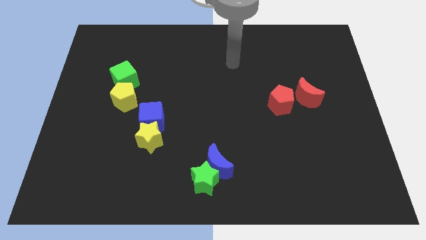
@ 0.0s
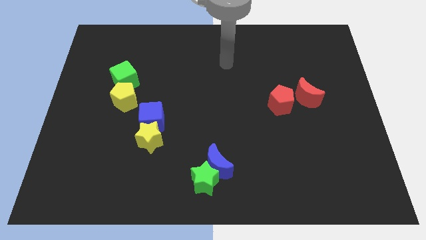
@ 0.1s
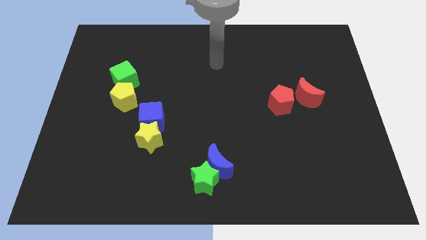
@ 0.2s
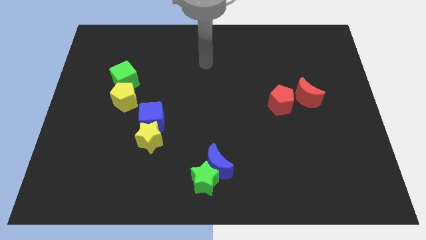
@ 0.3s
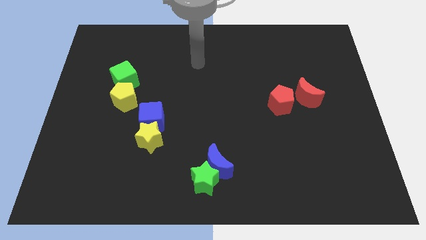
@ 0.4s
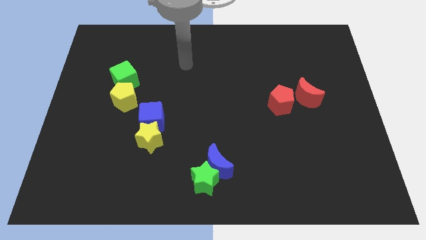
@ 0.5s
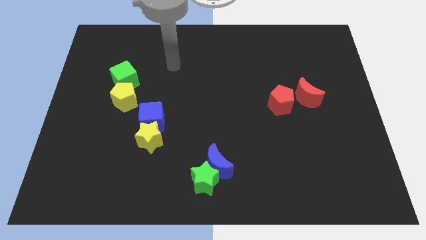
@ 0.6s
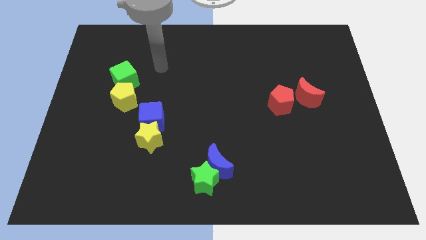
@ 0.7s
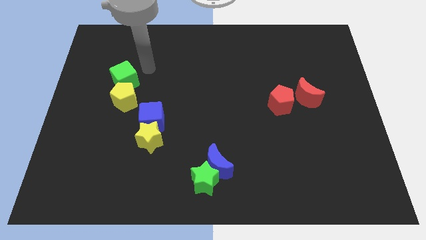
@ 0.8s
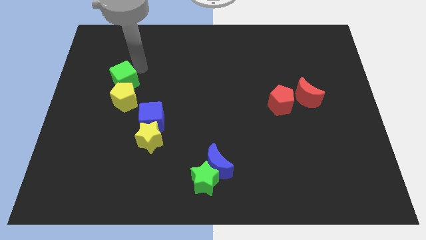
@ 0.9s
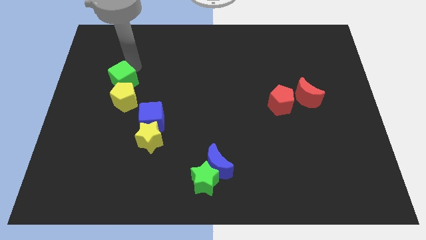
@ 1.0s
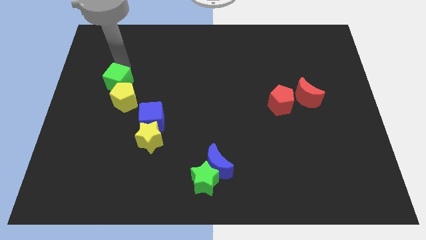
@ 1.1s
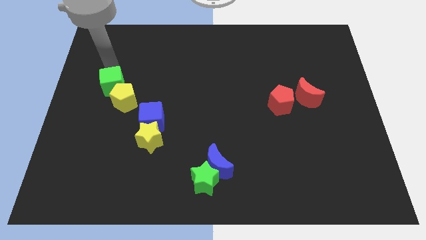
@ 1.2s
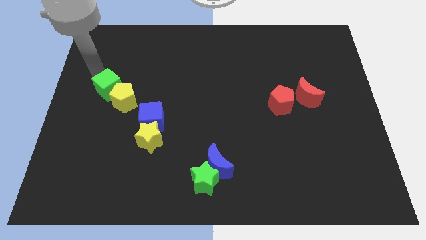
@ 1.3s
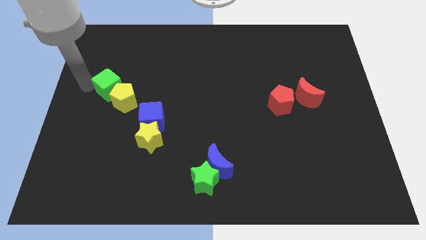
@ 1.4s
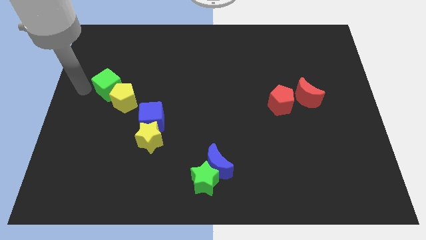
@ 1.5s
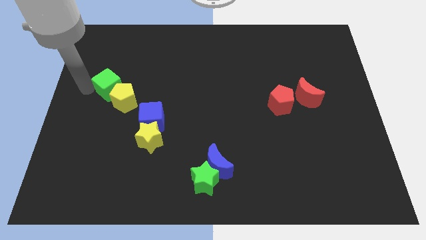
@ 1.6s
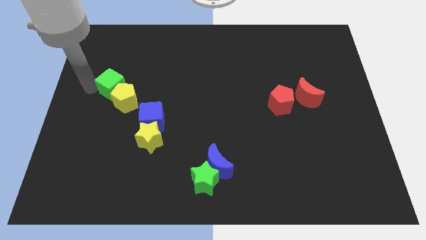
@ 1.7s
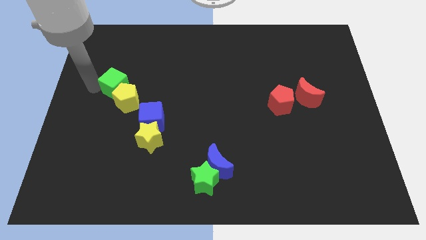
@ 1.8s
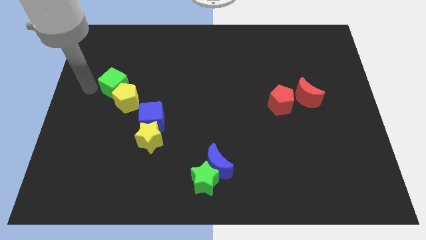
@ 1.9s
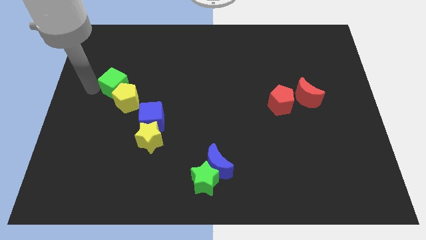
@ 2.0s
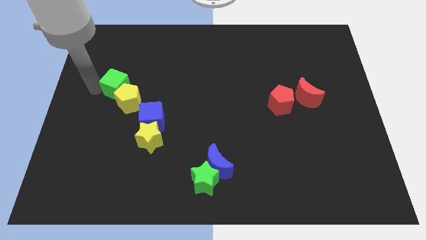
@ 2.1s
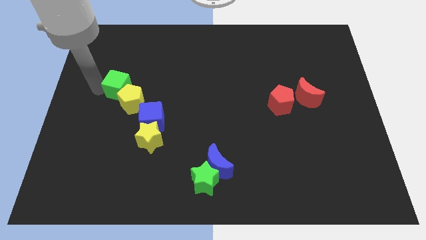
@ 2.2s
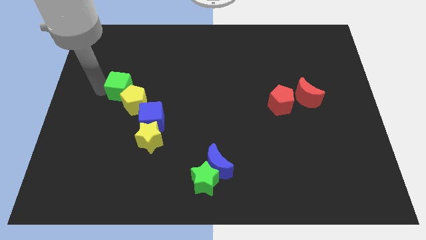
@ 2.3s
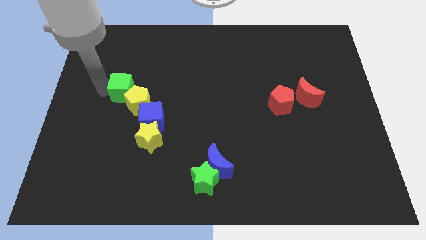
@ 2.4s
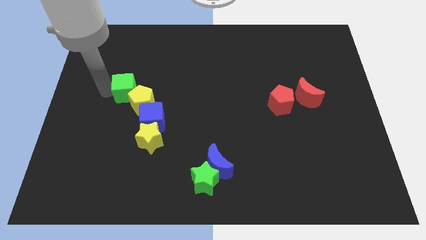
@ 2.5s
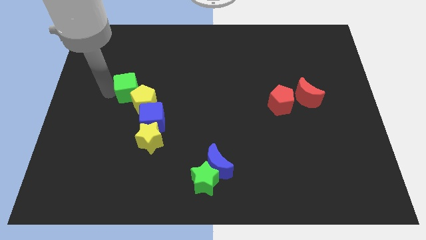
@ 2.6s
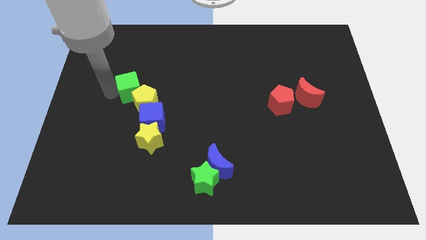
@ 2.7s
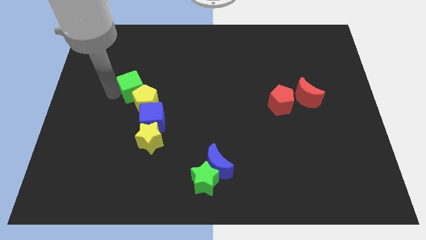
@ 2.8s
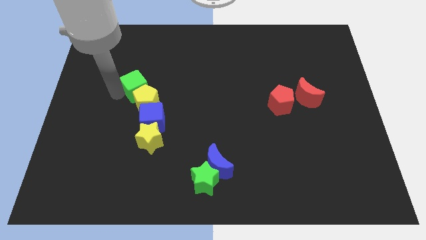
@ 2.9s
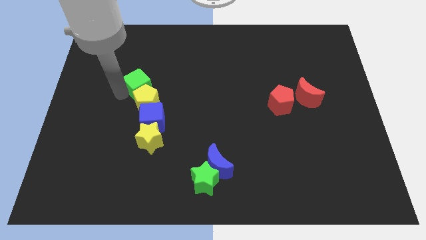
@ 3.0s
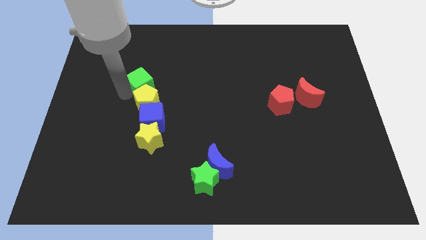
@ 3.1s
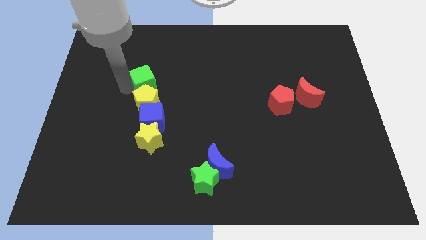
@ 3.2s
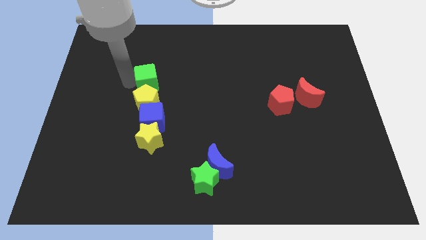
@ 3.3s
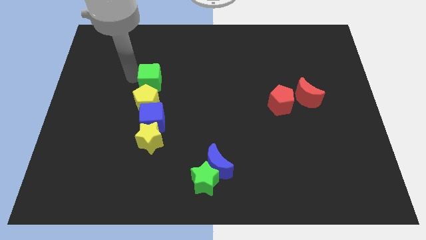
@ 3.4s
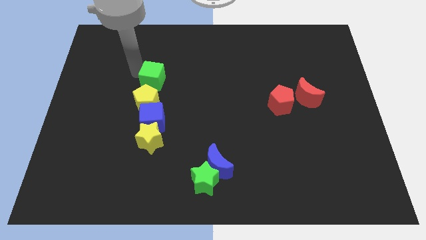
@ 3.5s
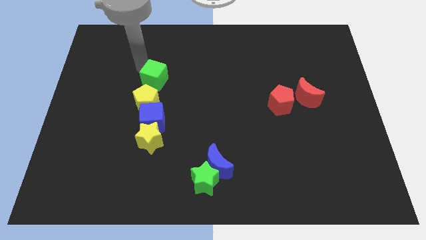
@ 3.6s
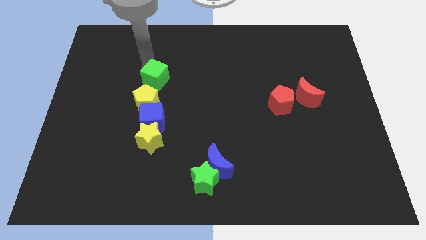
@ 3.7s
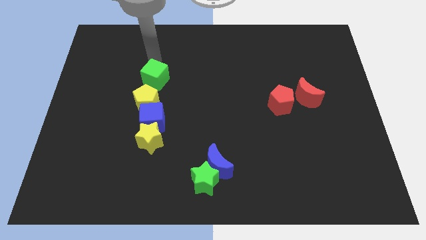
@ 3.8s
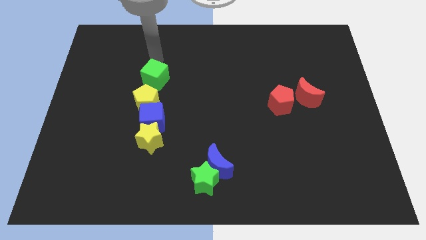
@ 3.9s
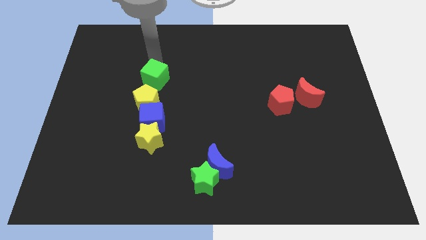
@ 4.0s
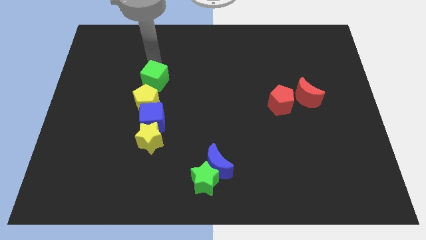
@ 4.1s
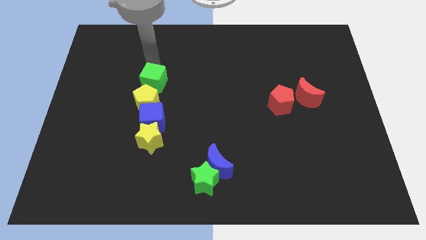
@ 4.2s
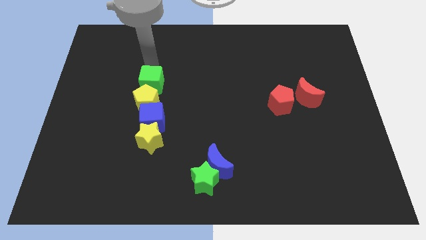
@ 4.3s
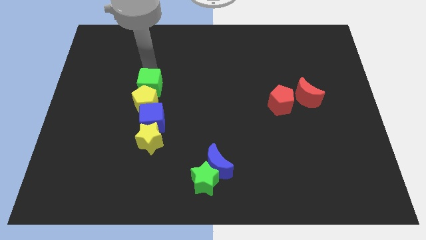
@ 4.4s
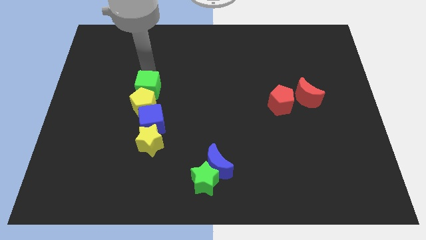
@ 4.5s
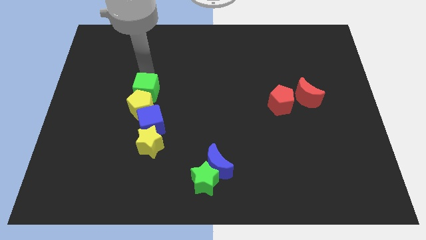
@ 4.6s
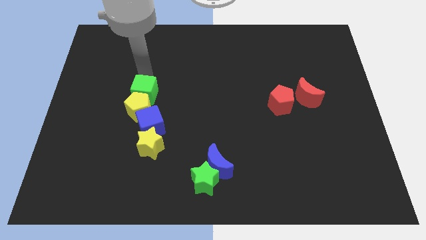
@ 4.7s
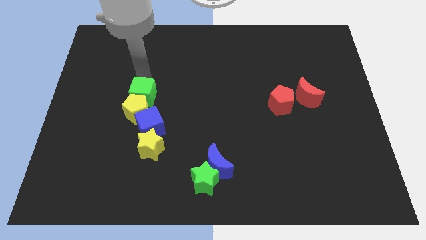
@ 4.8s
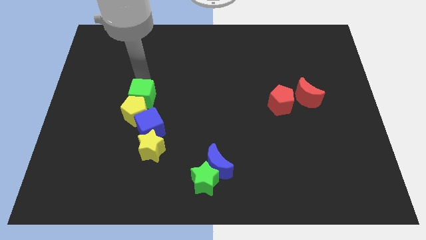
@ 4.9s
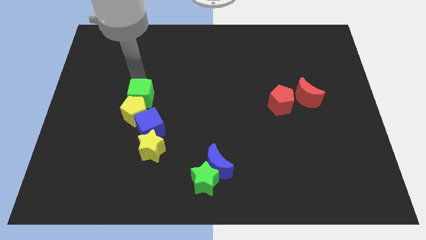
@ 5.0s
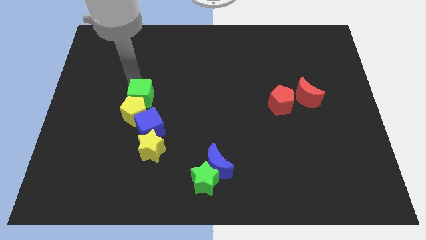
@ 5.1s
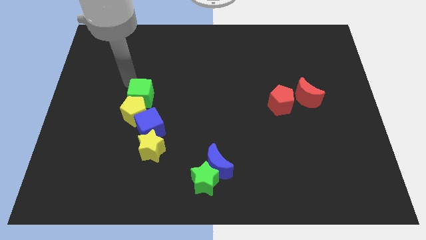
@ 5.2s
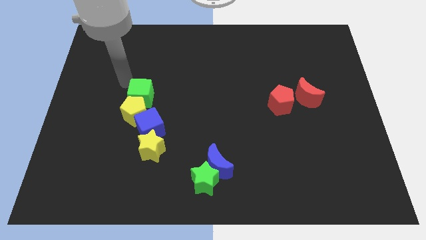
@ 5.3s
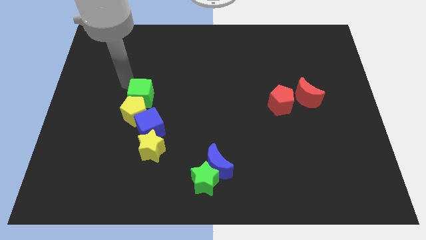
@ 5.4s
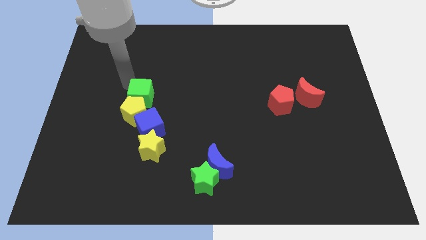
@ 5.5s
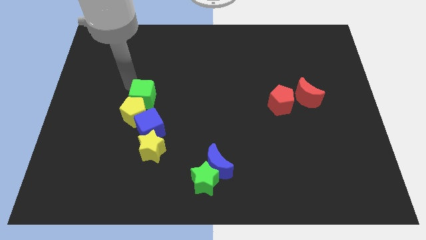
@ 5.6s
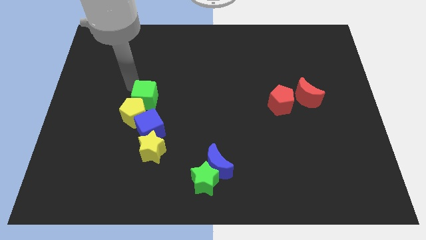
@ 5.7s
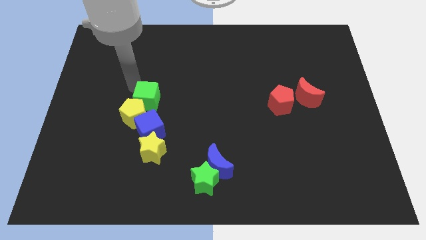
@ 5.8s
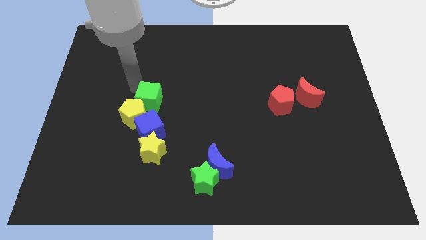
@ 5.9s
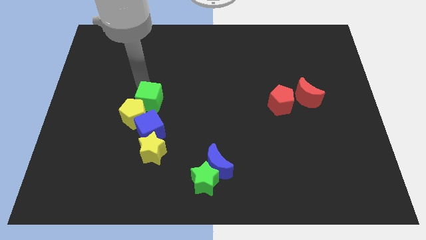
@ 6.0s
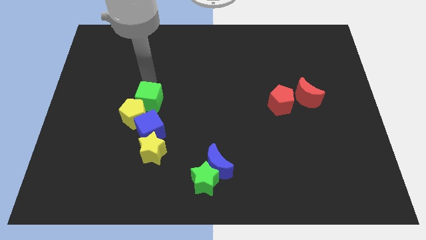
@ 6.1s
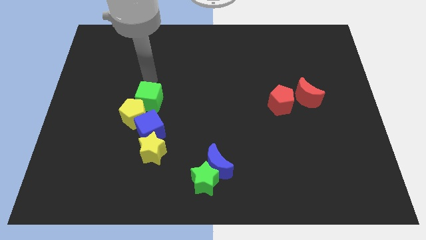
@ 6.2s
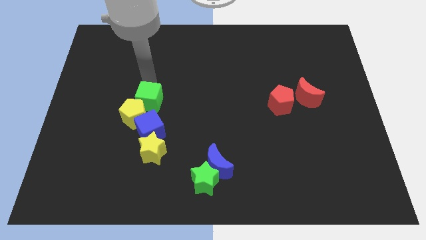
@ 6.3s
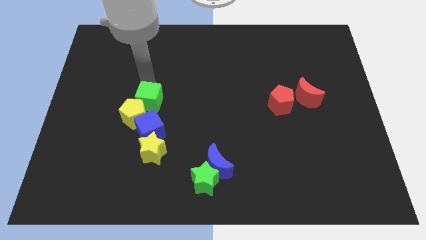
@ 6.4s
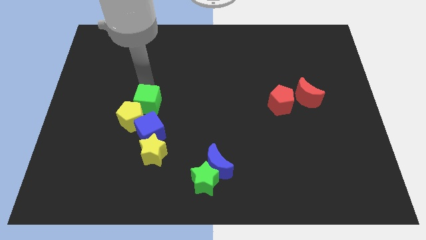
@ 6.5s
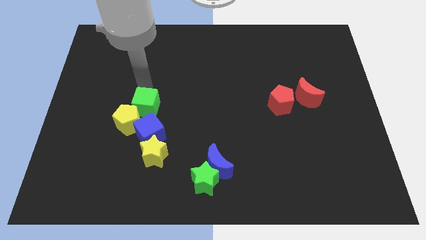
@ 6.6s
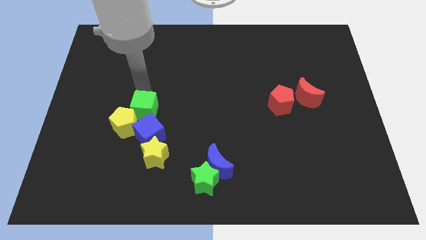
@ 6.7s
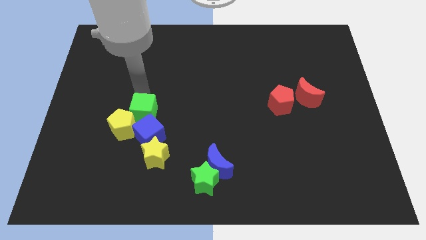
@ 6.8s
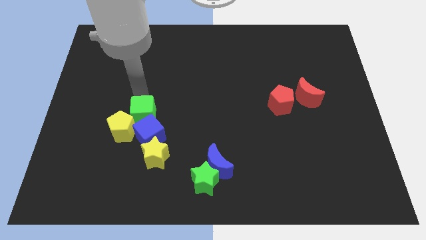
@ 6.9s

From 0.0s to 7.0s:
put the green cube towards the blue cube

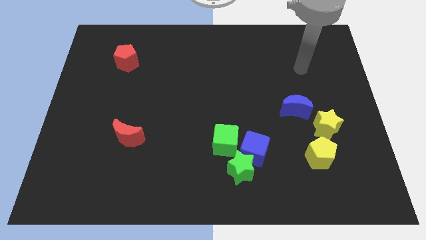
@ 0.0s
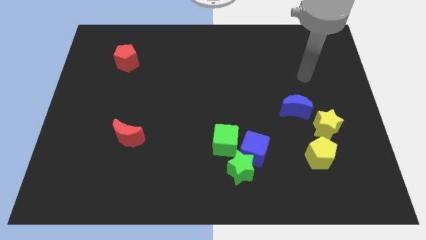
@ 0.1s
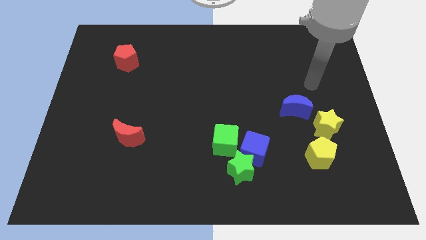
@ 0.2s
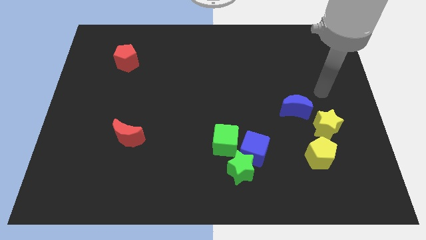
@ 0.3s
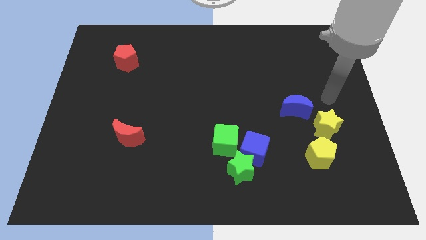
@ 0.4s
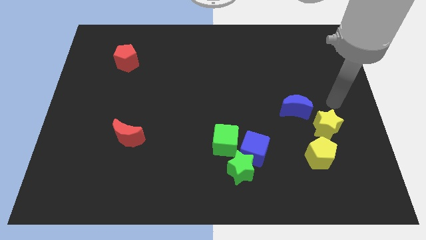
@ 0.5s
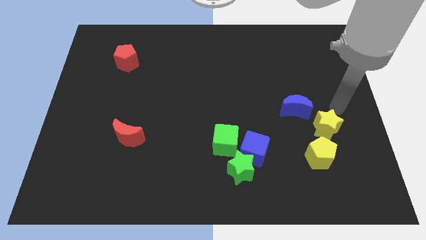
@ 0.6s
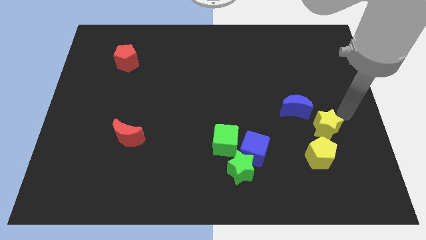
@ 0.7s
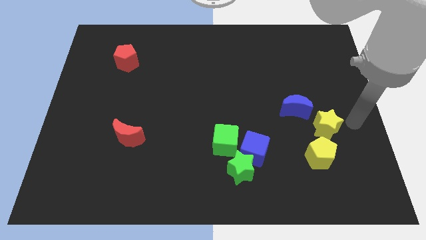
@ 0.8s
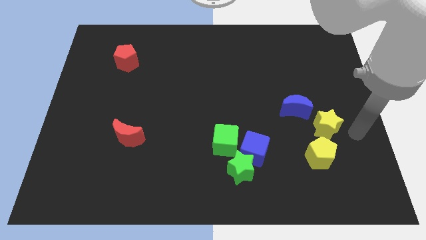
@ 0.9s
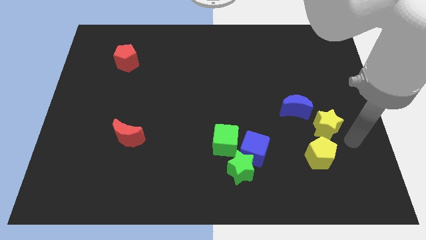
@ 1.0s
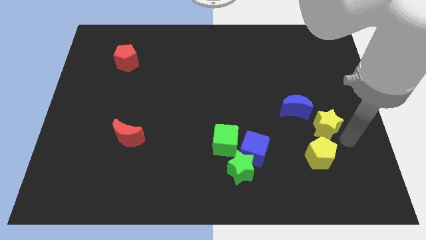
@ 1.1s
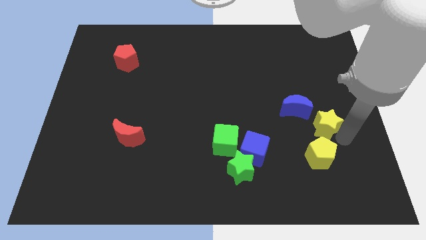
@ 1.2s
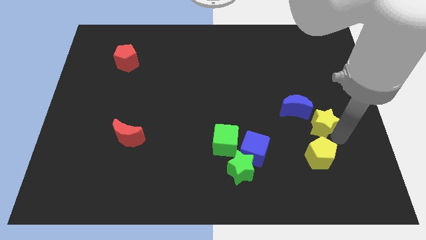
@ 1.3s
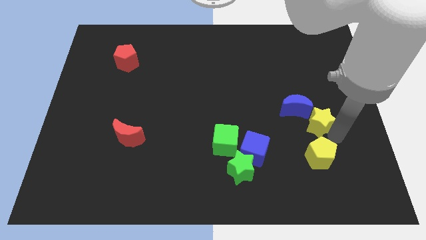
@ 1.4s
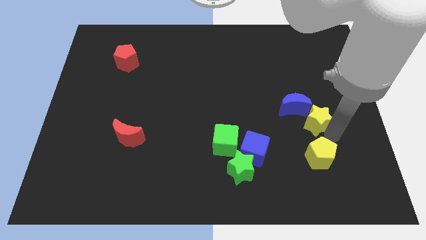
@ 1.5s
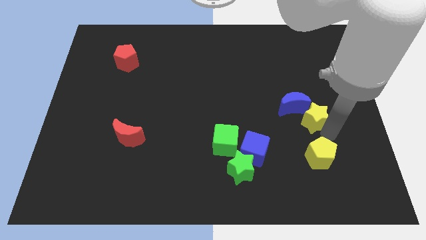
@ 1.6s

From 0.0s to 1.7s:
push the yellow star next to the blue moon
